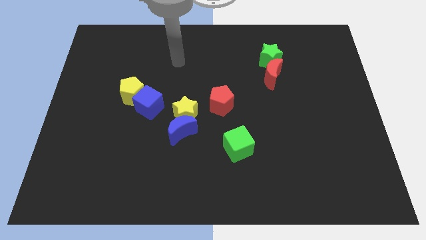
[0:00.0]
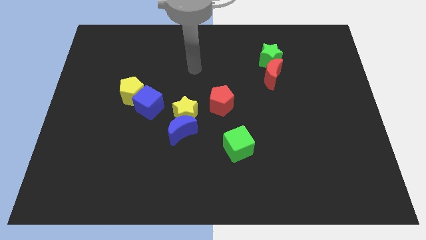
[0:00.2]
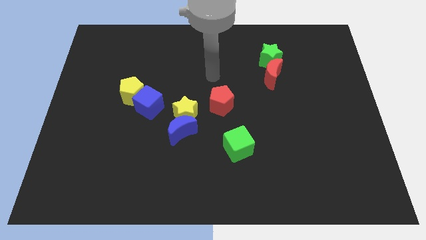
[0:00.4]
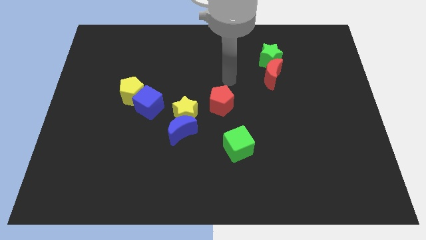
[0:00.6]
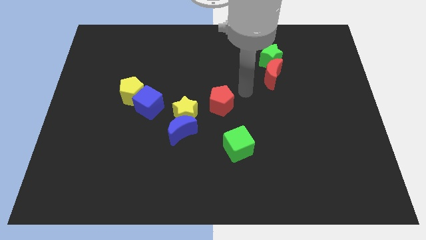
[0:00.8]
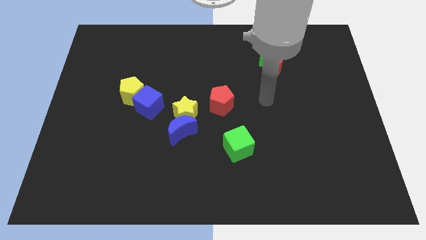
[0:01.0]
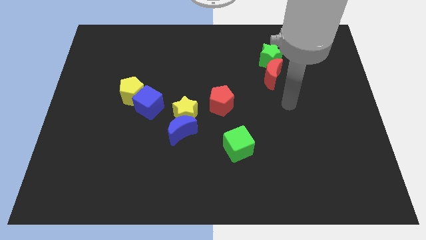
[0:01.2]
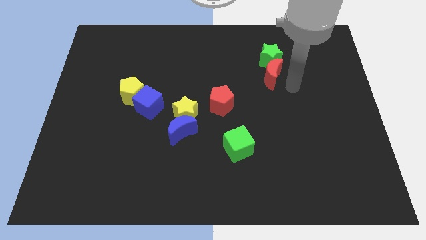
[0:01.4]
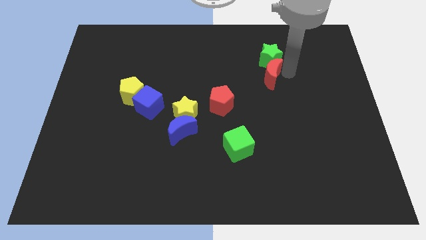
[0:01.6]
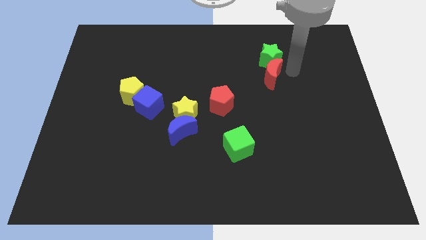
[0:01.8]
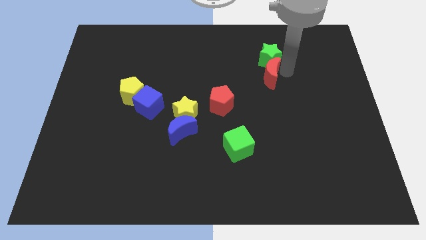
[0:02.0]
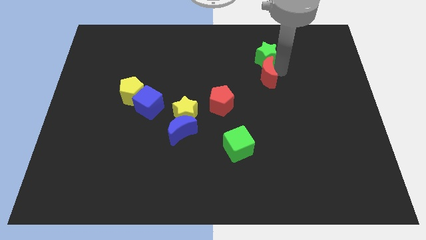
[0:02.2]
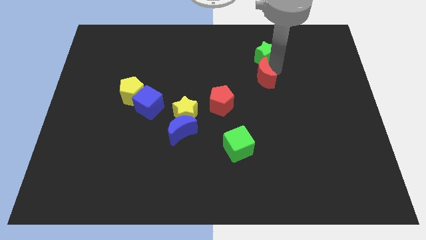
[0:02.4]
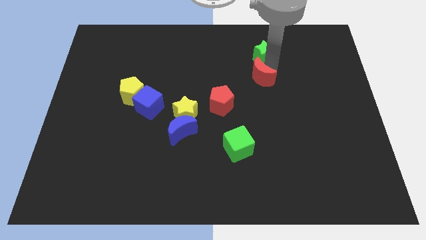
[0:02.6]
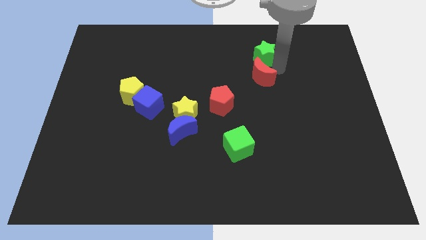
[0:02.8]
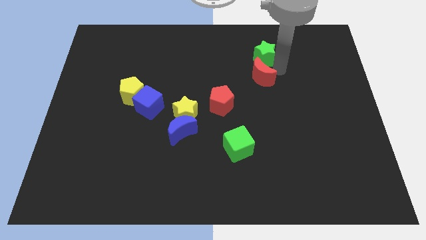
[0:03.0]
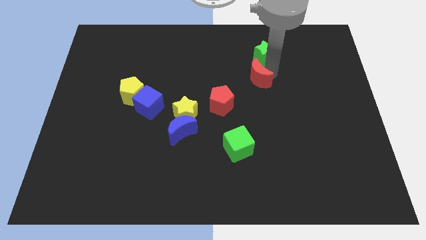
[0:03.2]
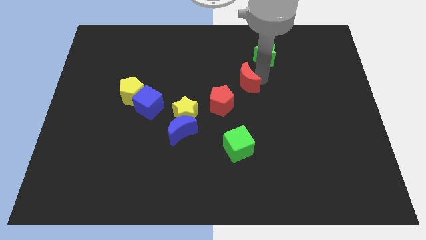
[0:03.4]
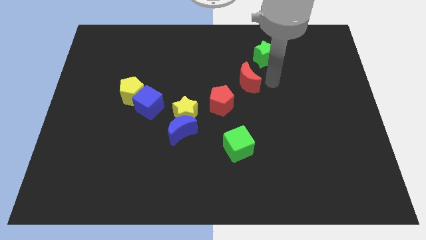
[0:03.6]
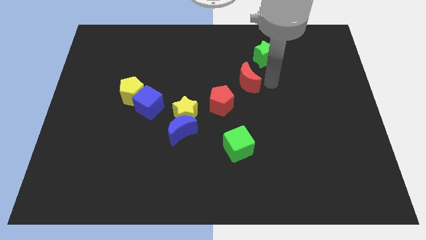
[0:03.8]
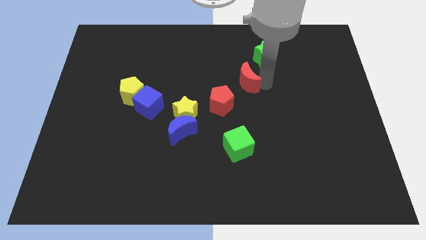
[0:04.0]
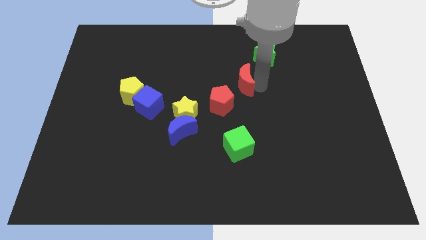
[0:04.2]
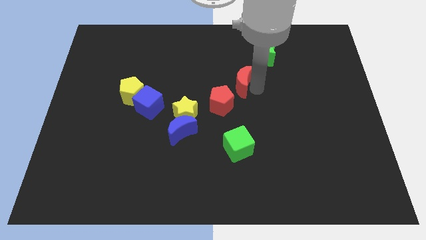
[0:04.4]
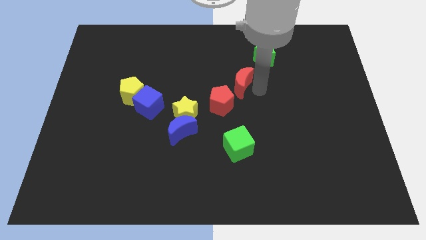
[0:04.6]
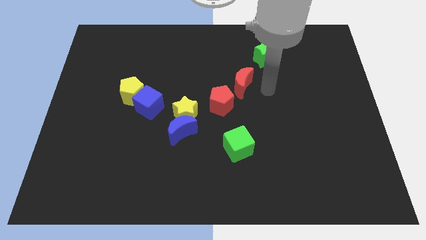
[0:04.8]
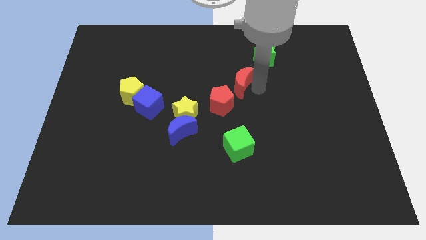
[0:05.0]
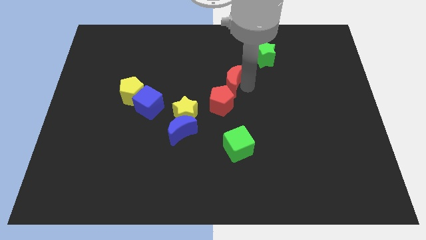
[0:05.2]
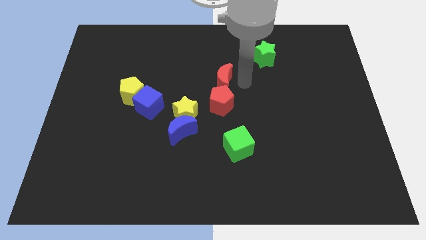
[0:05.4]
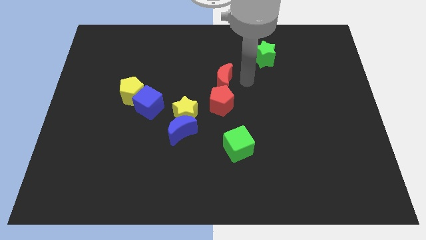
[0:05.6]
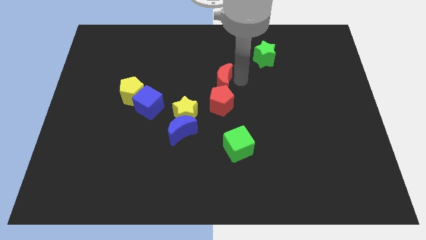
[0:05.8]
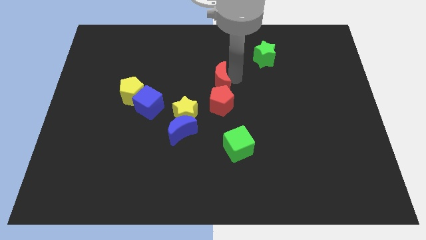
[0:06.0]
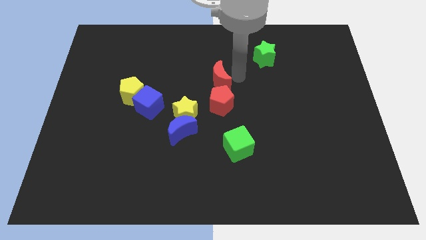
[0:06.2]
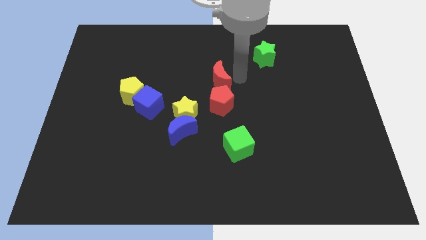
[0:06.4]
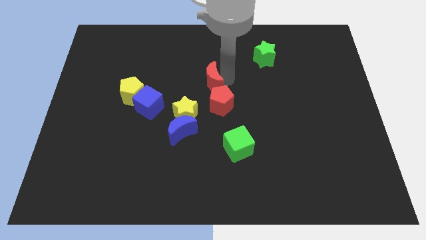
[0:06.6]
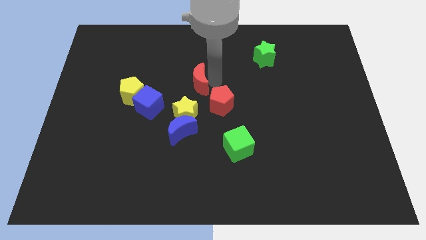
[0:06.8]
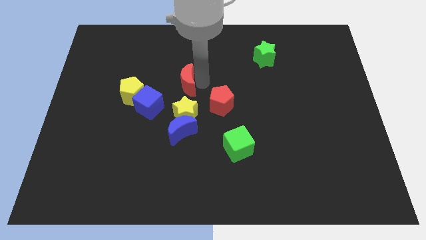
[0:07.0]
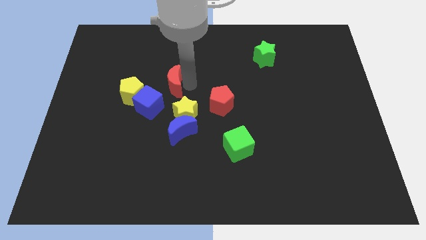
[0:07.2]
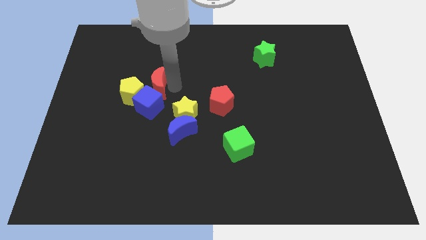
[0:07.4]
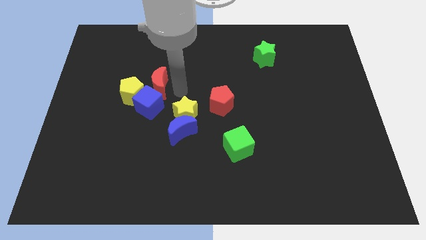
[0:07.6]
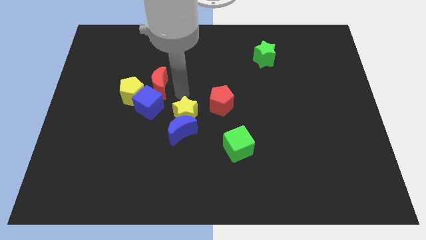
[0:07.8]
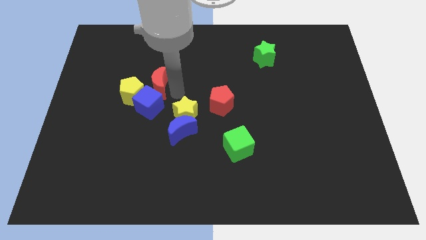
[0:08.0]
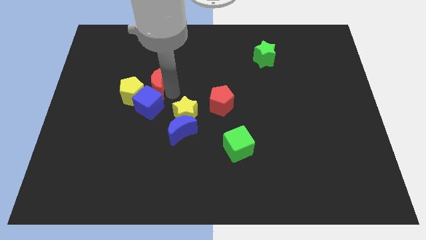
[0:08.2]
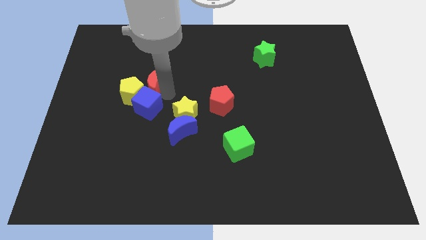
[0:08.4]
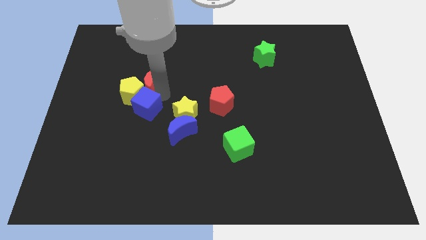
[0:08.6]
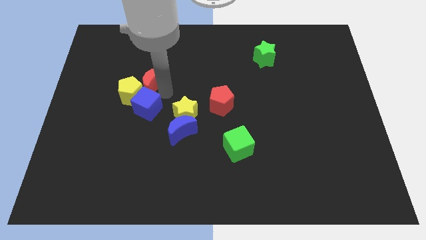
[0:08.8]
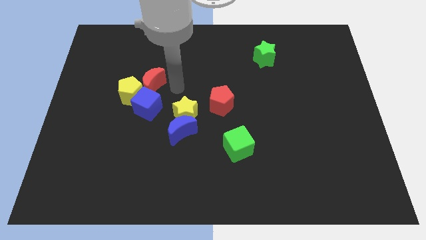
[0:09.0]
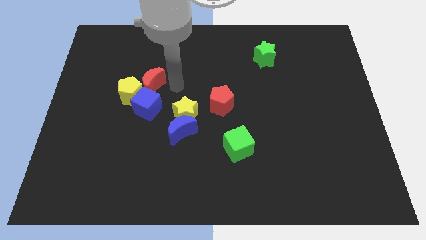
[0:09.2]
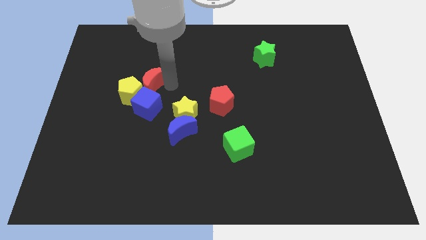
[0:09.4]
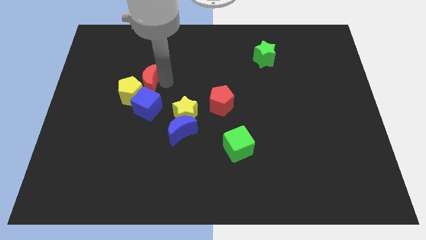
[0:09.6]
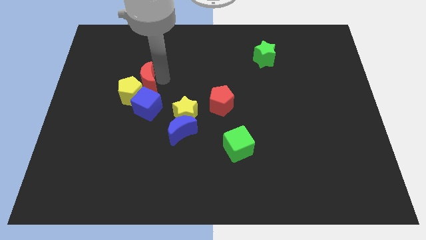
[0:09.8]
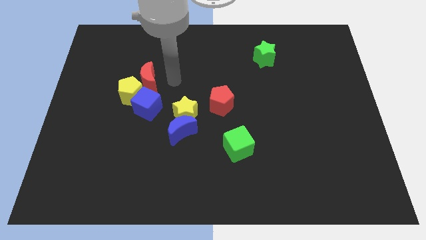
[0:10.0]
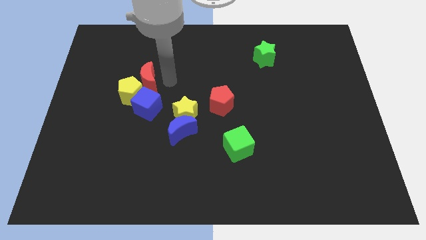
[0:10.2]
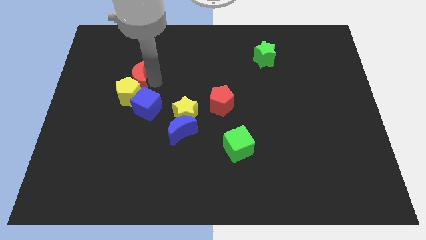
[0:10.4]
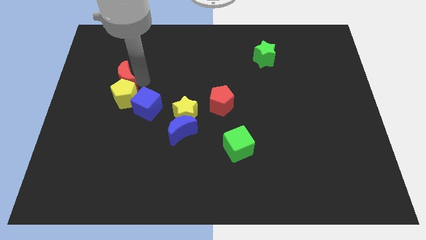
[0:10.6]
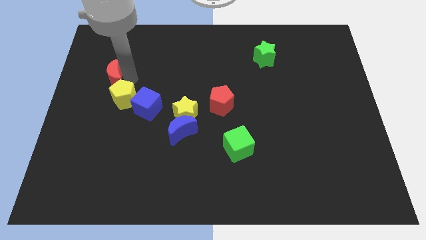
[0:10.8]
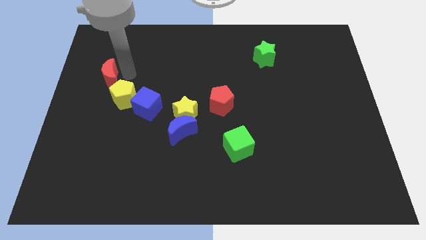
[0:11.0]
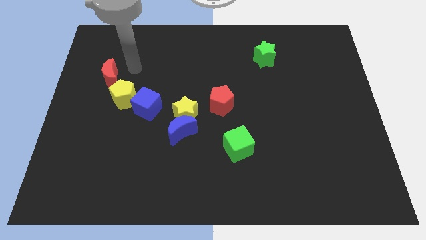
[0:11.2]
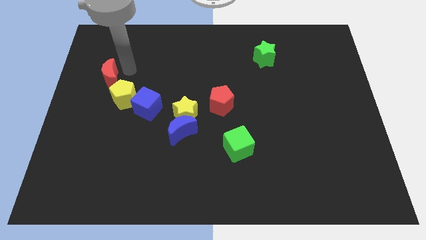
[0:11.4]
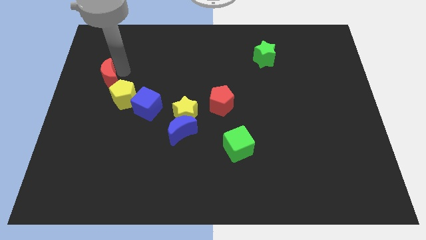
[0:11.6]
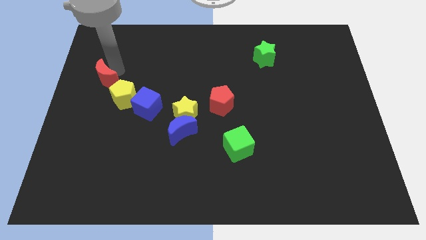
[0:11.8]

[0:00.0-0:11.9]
slide the red moon to the left side
